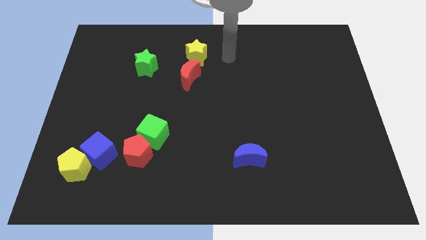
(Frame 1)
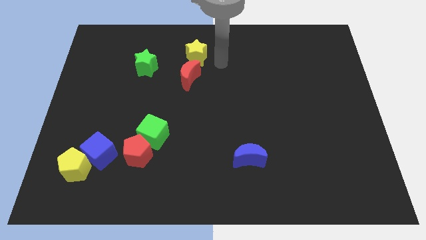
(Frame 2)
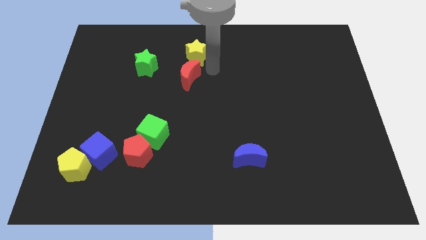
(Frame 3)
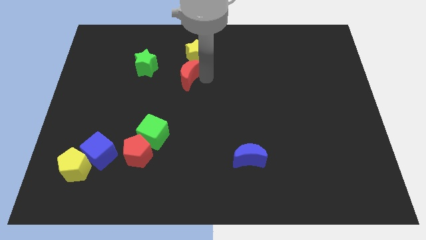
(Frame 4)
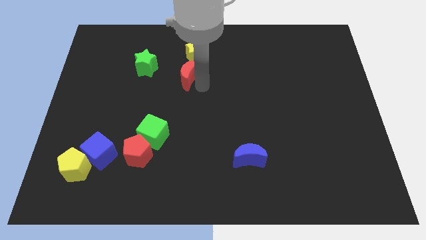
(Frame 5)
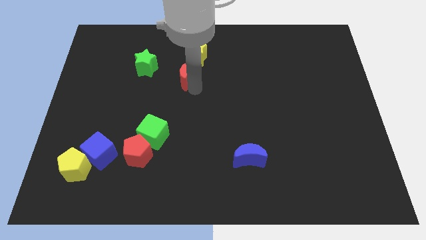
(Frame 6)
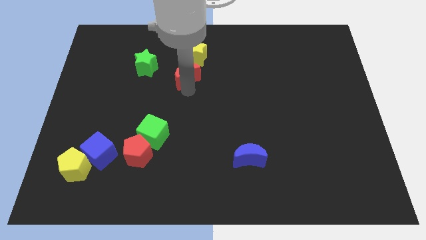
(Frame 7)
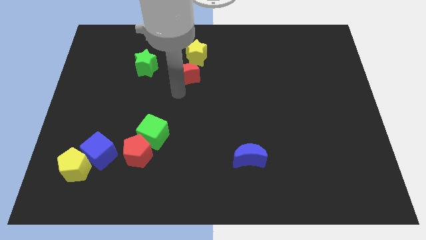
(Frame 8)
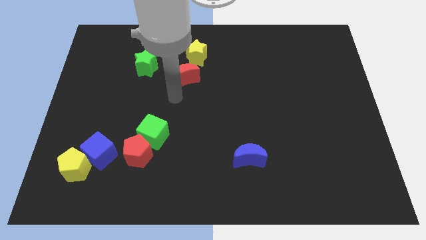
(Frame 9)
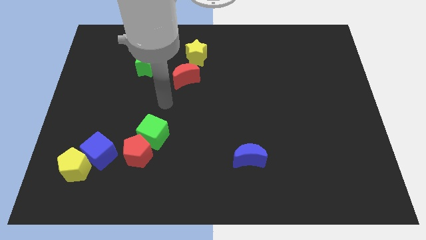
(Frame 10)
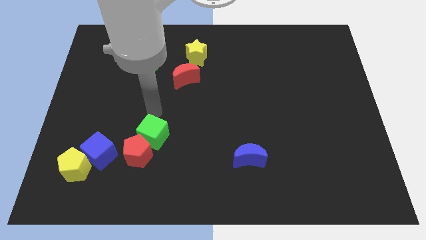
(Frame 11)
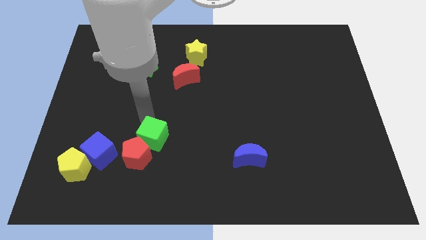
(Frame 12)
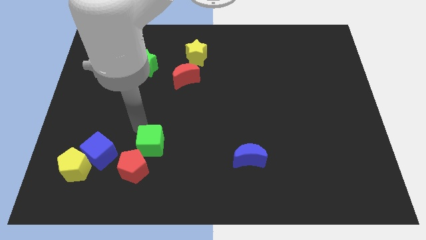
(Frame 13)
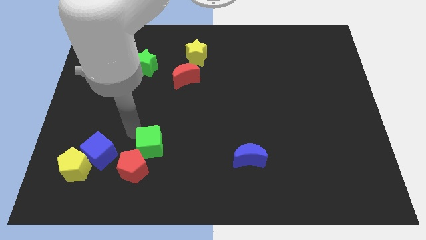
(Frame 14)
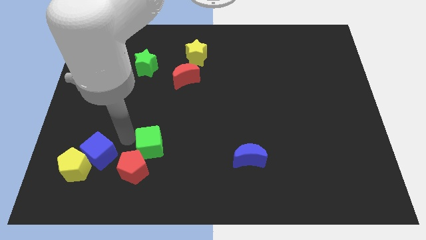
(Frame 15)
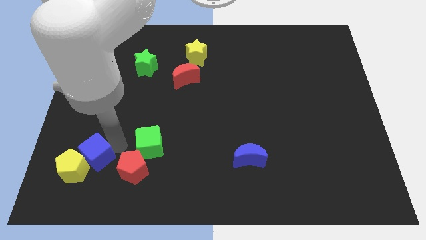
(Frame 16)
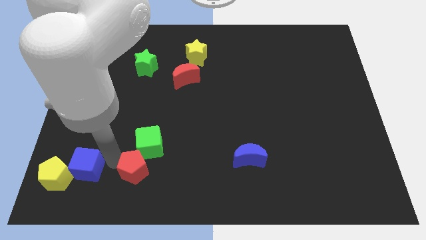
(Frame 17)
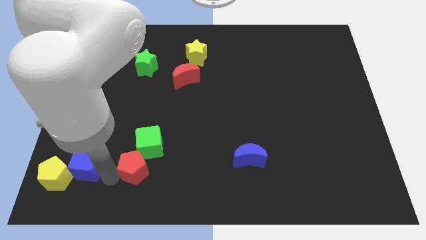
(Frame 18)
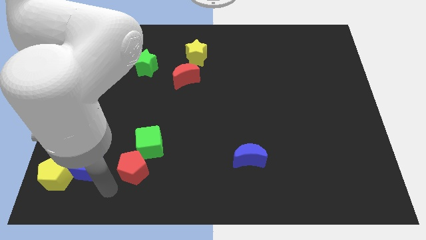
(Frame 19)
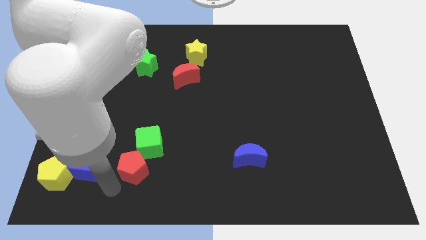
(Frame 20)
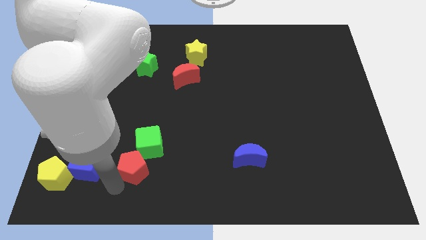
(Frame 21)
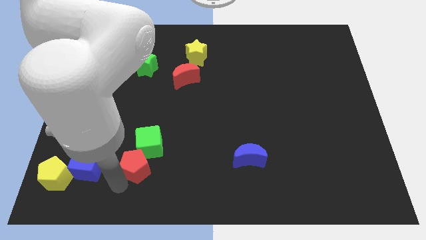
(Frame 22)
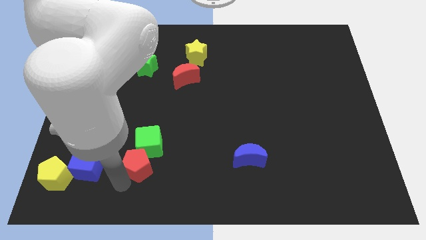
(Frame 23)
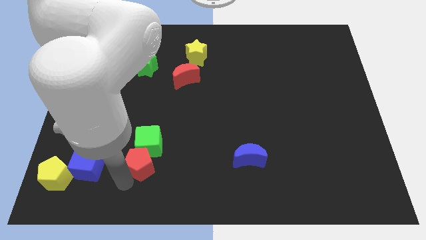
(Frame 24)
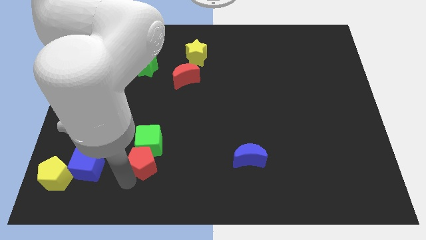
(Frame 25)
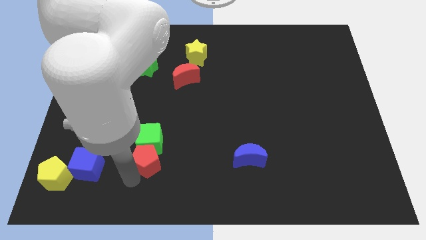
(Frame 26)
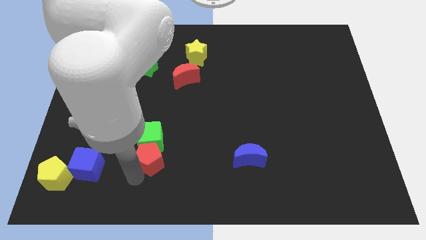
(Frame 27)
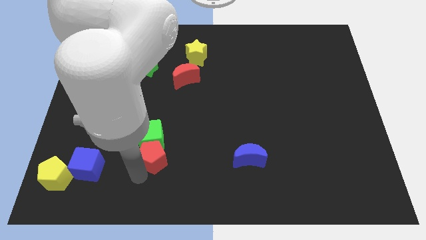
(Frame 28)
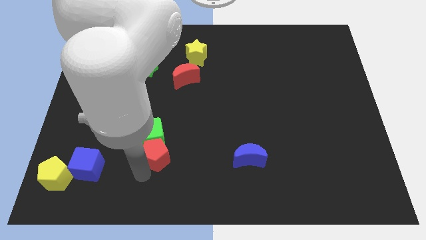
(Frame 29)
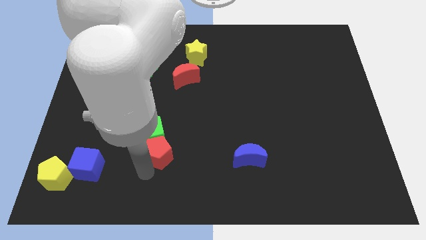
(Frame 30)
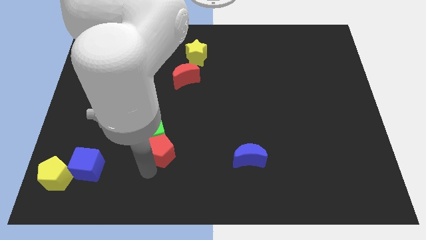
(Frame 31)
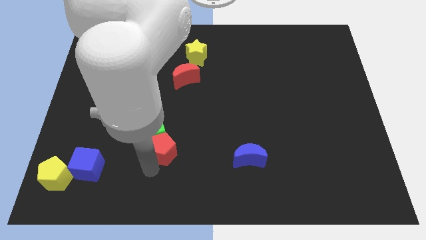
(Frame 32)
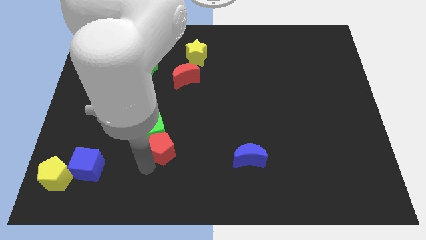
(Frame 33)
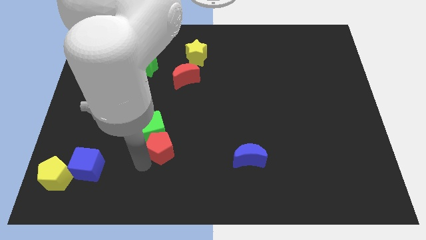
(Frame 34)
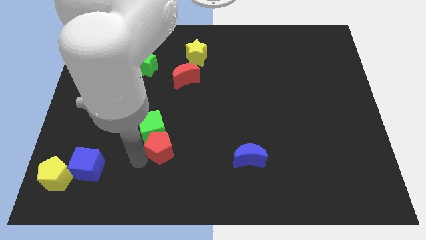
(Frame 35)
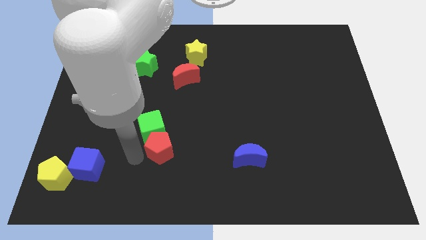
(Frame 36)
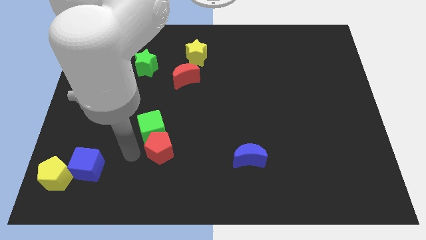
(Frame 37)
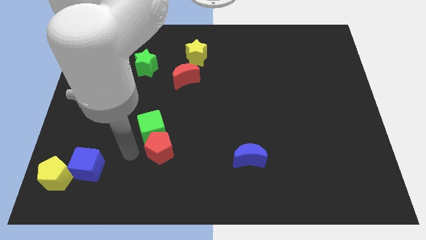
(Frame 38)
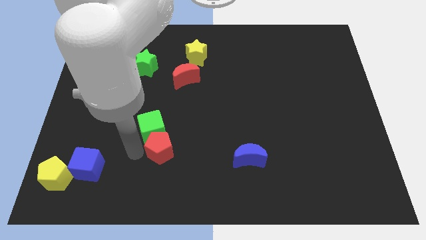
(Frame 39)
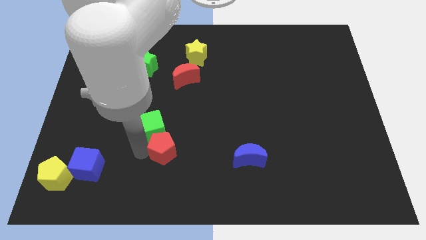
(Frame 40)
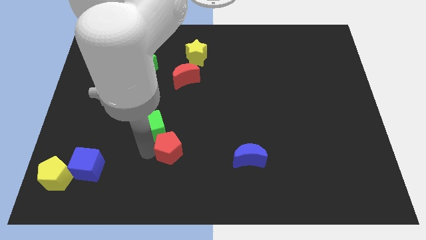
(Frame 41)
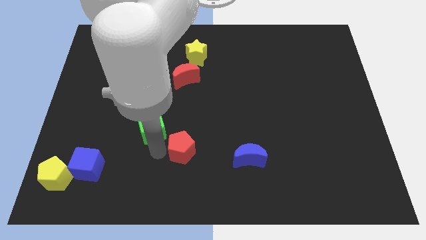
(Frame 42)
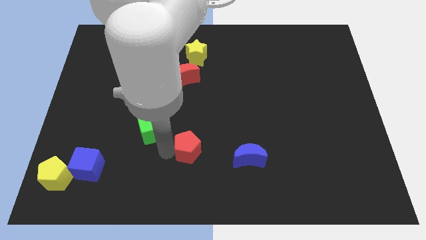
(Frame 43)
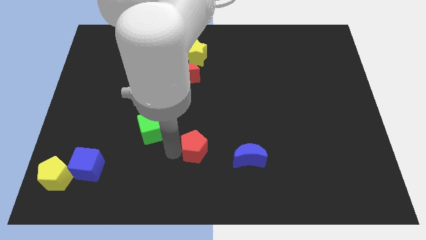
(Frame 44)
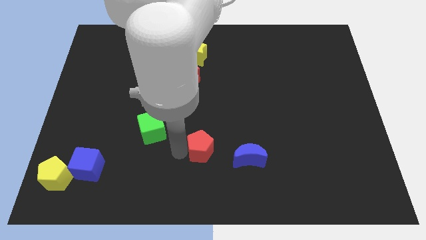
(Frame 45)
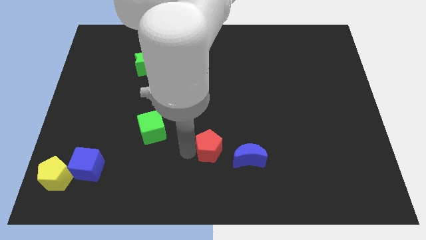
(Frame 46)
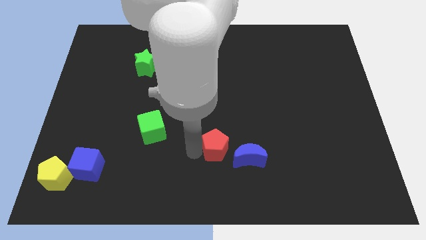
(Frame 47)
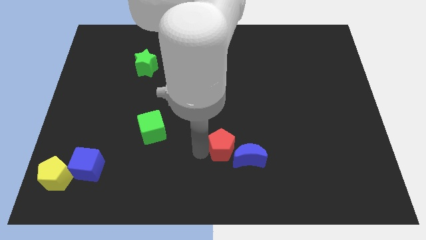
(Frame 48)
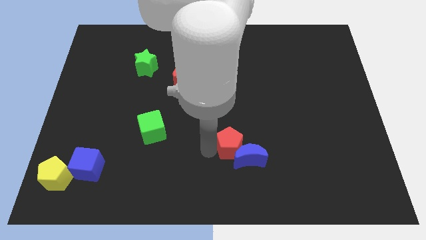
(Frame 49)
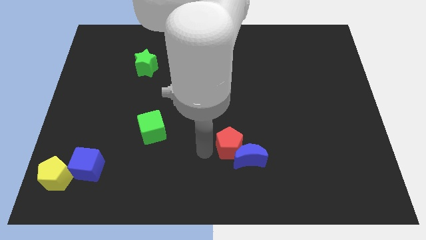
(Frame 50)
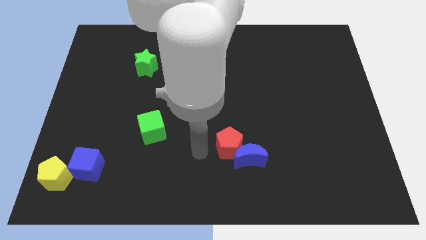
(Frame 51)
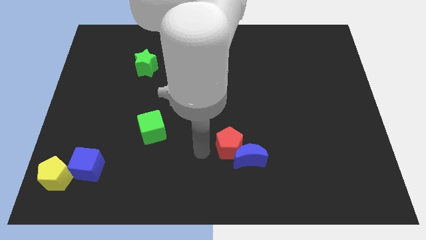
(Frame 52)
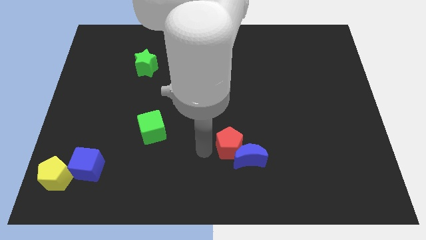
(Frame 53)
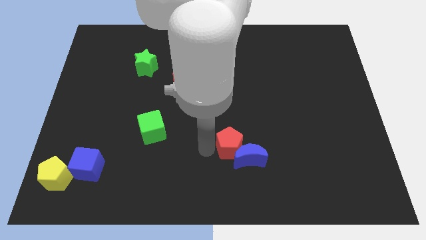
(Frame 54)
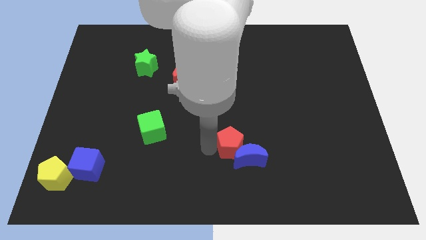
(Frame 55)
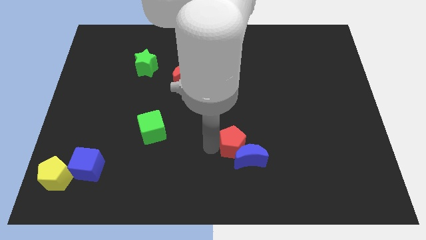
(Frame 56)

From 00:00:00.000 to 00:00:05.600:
push the red pentagon right

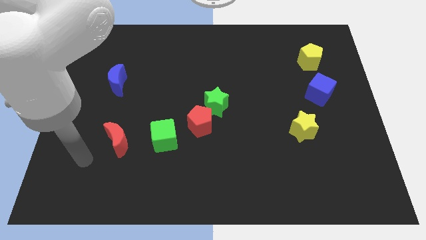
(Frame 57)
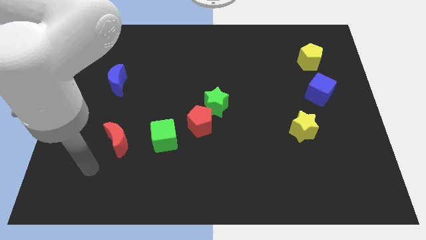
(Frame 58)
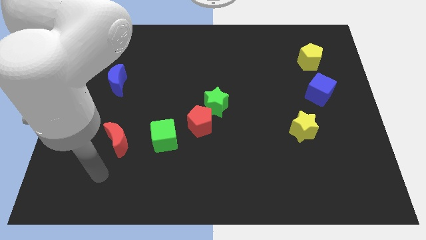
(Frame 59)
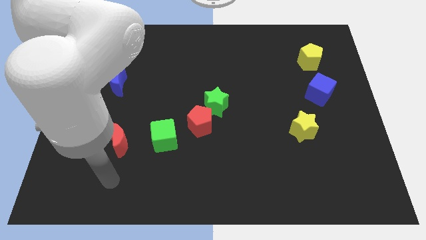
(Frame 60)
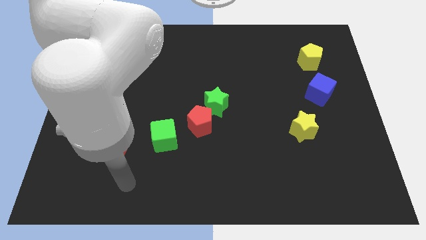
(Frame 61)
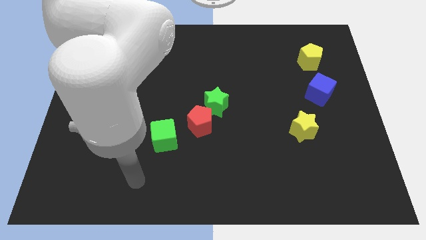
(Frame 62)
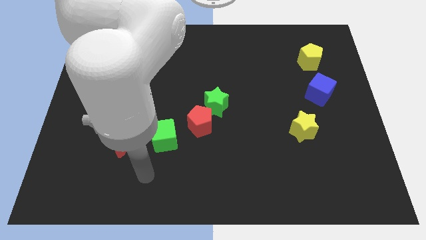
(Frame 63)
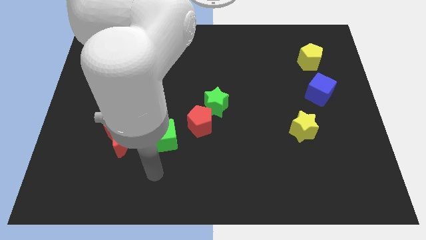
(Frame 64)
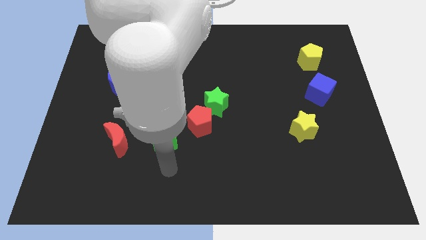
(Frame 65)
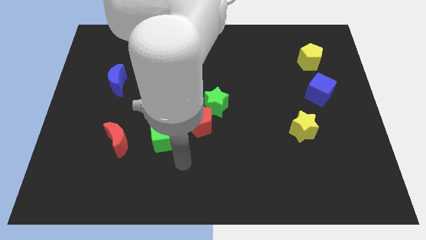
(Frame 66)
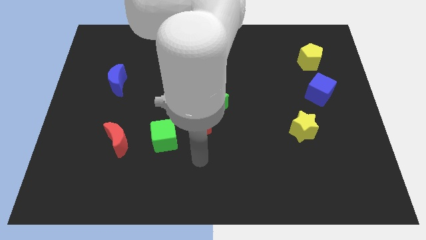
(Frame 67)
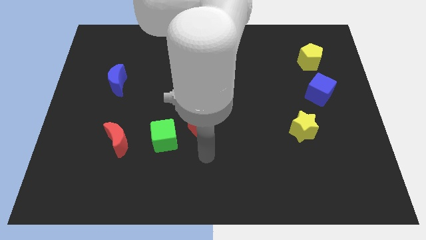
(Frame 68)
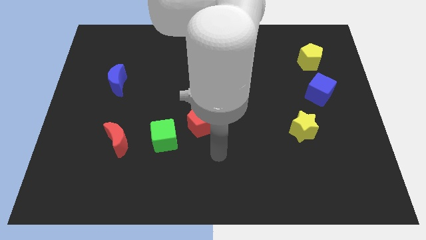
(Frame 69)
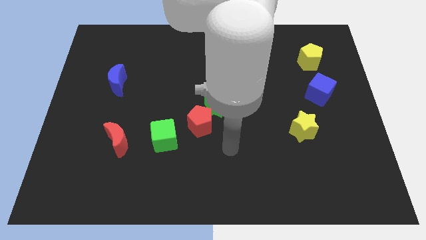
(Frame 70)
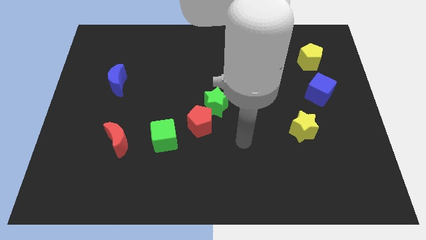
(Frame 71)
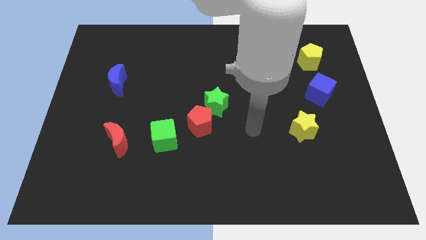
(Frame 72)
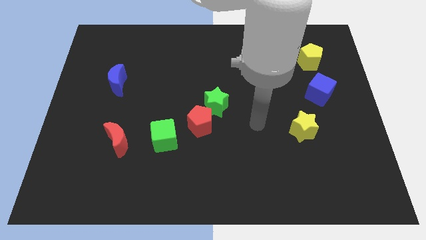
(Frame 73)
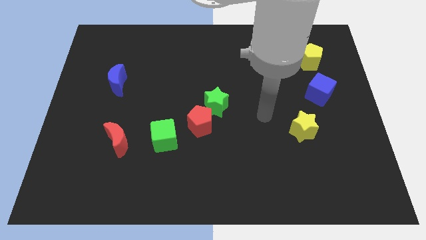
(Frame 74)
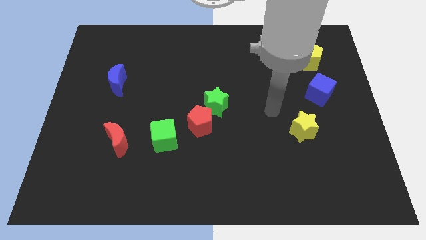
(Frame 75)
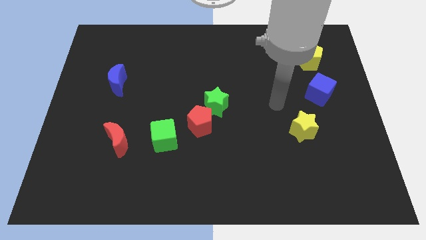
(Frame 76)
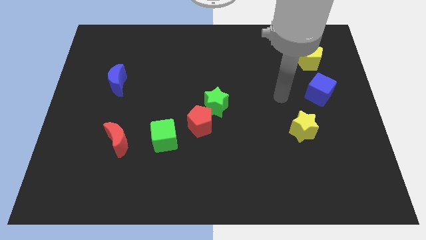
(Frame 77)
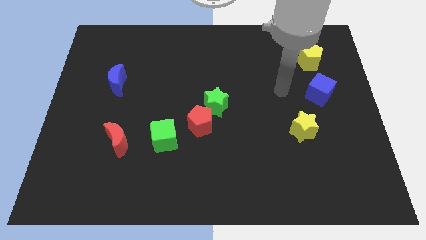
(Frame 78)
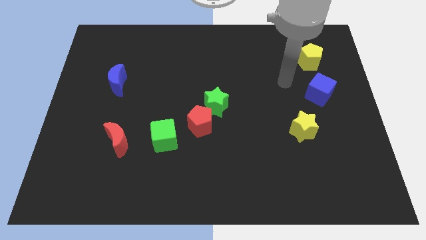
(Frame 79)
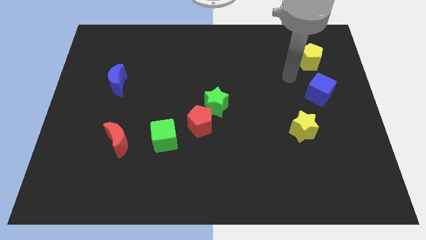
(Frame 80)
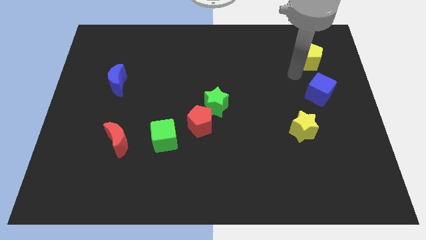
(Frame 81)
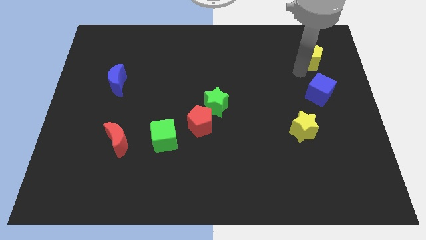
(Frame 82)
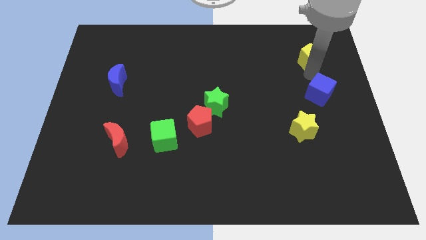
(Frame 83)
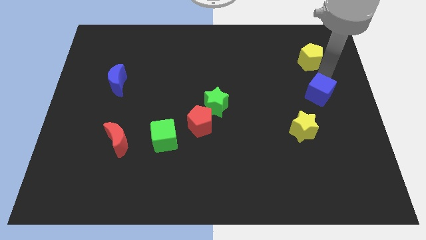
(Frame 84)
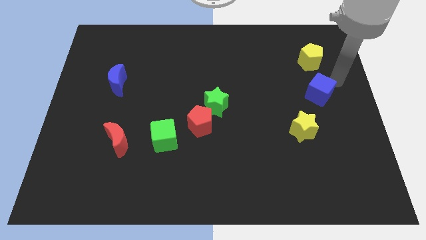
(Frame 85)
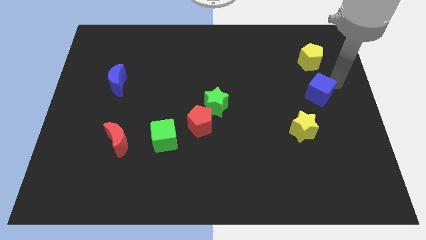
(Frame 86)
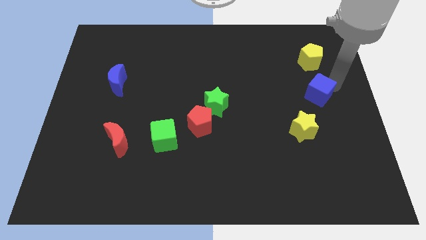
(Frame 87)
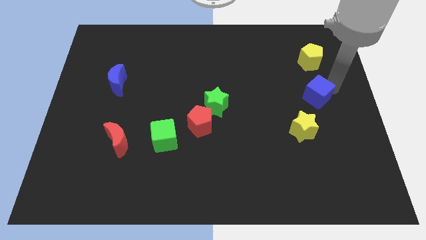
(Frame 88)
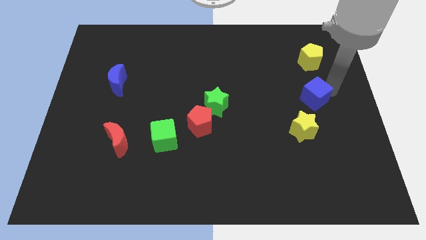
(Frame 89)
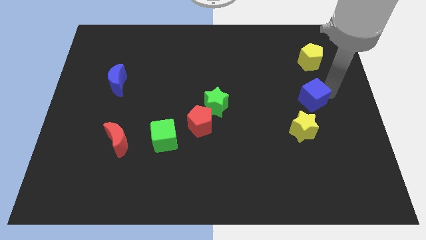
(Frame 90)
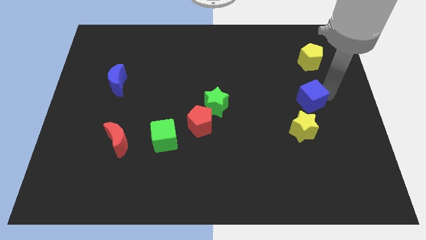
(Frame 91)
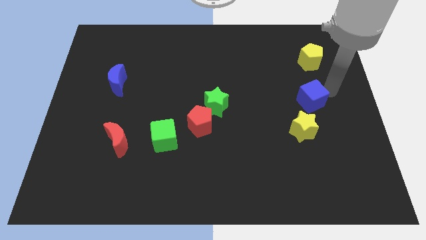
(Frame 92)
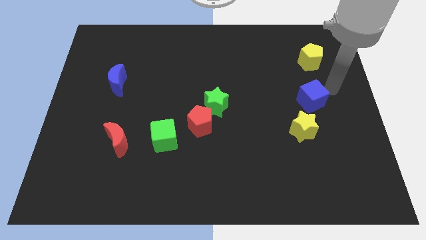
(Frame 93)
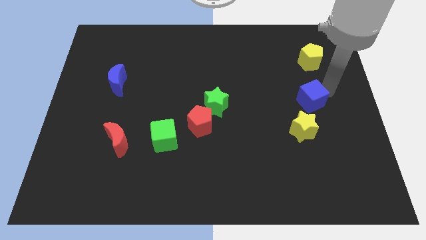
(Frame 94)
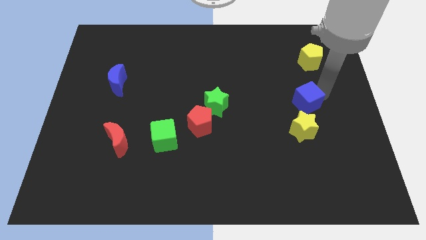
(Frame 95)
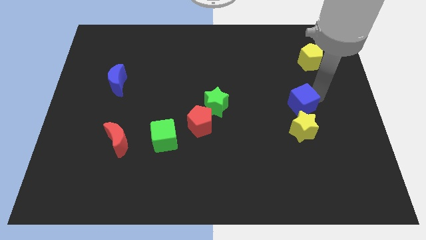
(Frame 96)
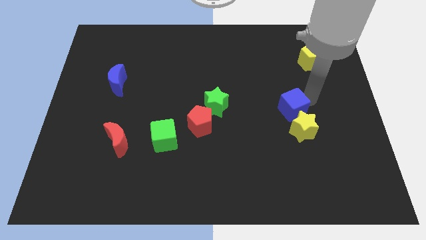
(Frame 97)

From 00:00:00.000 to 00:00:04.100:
slightly push the blue cube diagonally downwards and left
